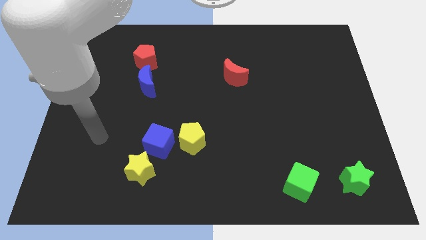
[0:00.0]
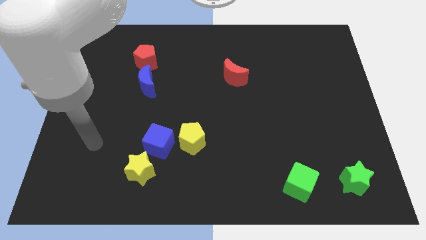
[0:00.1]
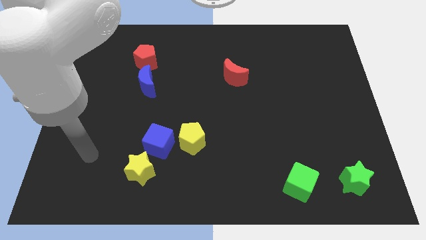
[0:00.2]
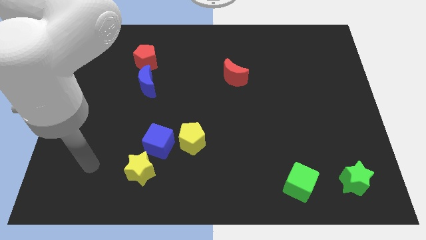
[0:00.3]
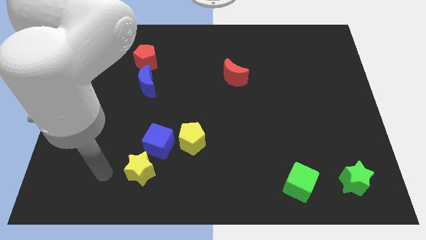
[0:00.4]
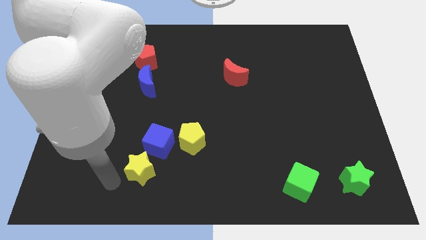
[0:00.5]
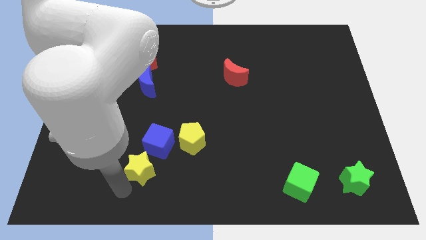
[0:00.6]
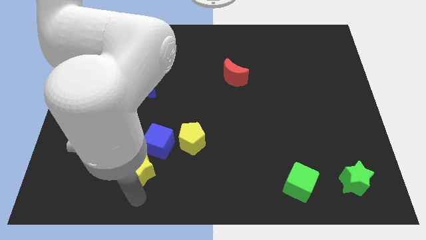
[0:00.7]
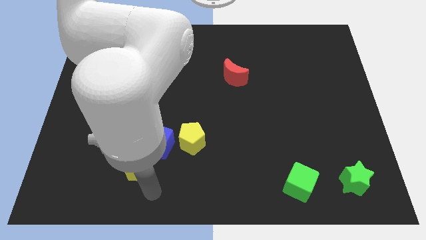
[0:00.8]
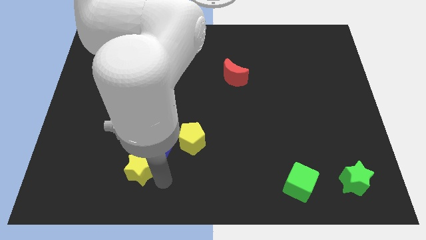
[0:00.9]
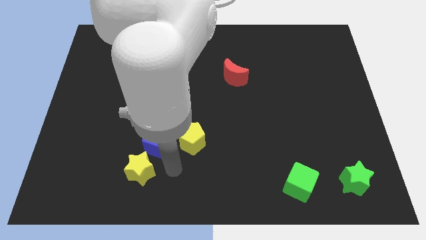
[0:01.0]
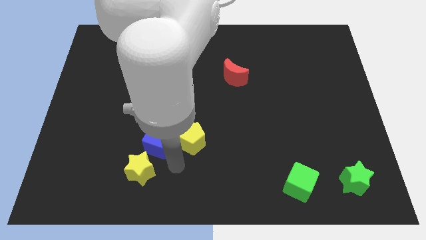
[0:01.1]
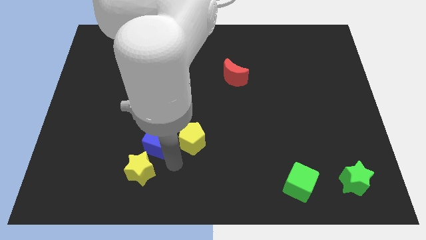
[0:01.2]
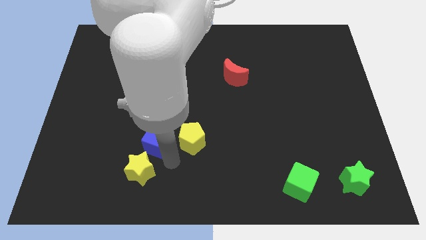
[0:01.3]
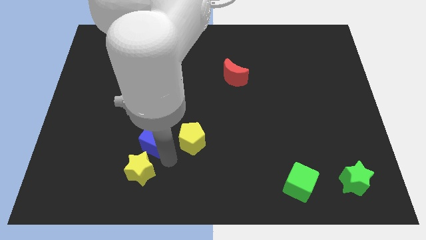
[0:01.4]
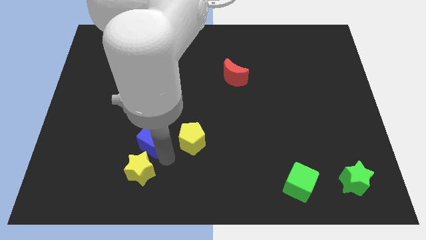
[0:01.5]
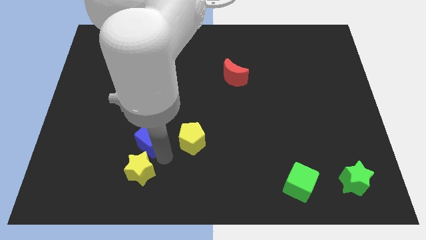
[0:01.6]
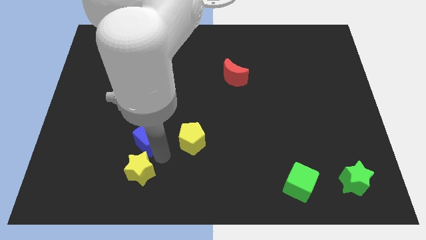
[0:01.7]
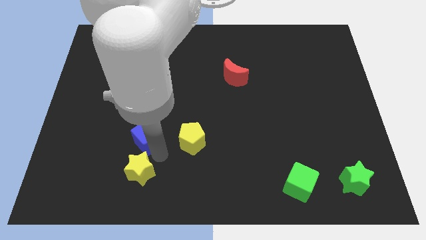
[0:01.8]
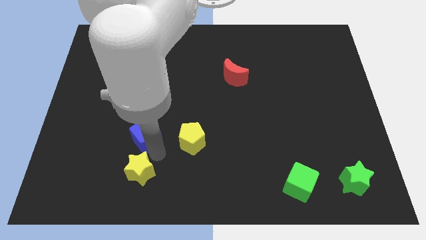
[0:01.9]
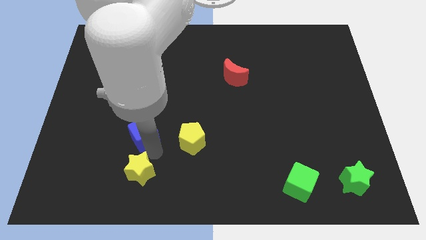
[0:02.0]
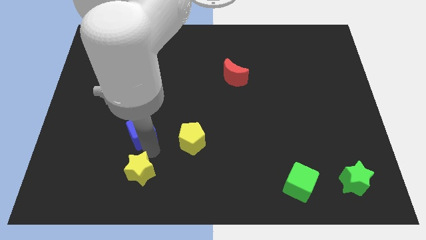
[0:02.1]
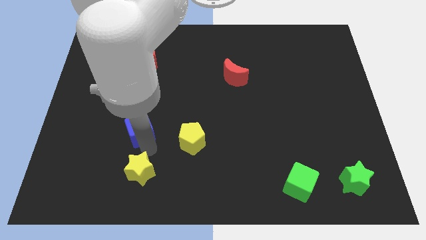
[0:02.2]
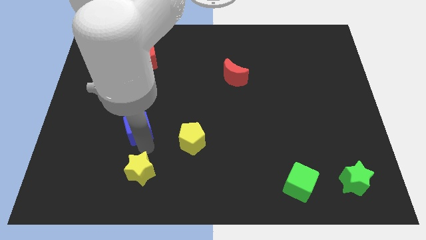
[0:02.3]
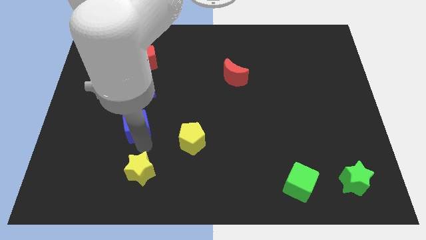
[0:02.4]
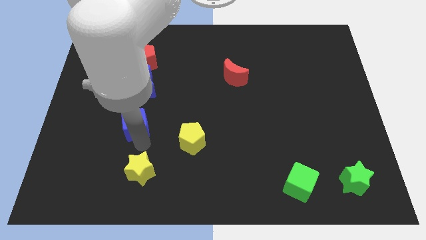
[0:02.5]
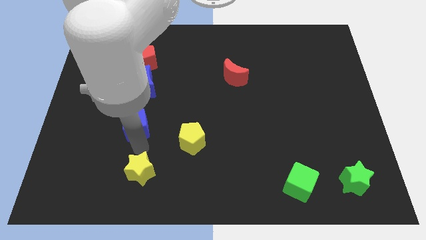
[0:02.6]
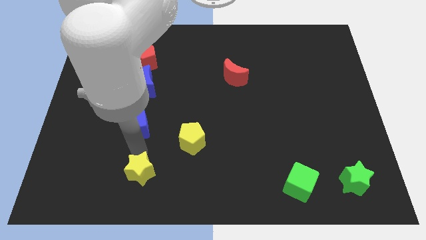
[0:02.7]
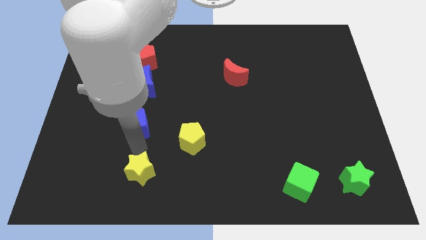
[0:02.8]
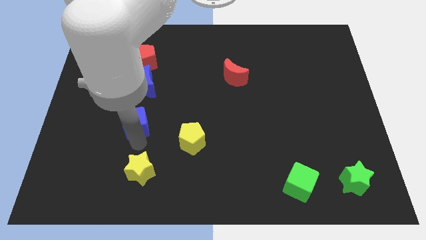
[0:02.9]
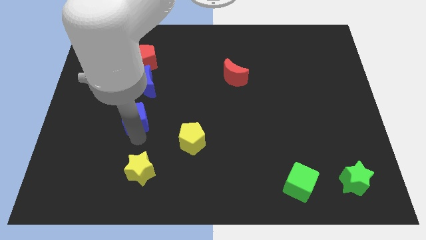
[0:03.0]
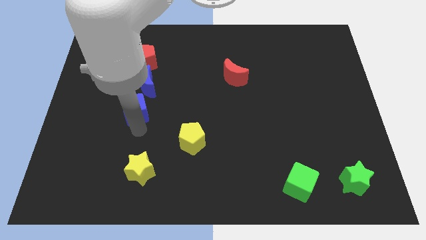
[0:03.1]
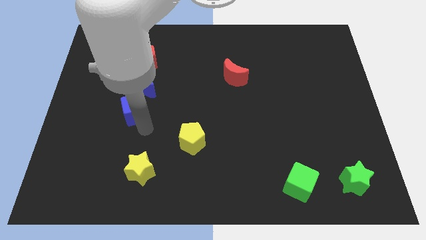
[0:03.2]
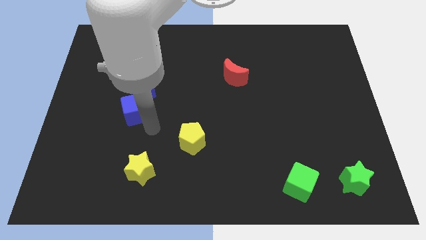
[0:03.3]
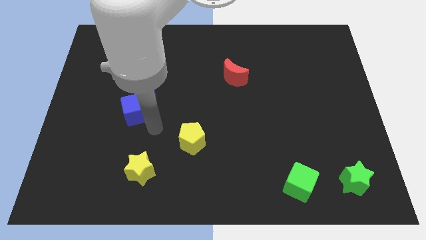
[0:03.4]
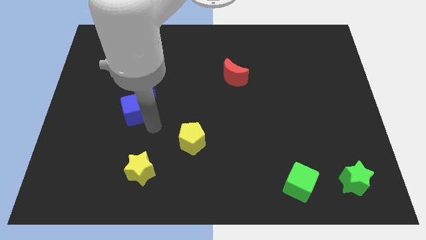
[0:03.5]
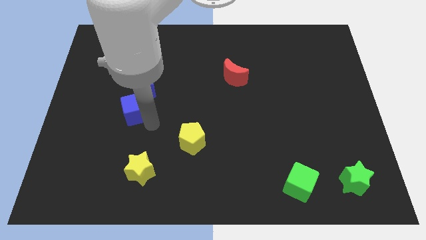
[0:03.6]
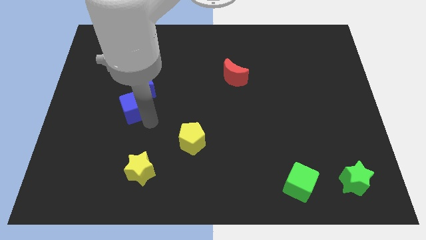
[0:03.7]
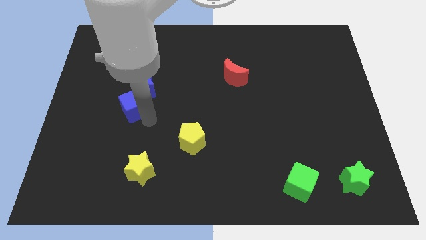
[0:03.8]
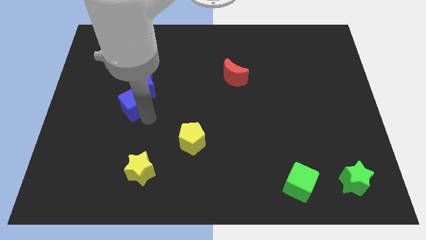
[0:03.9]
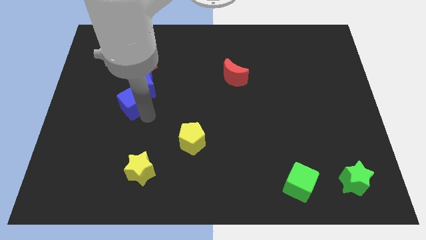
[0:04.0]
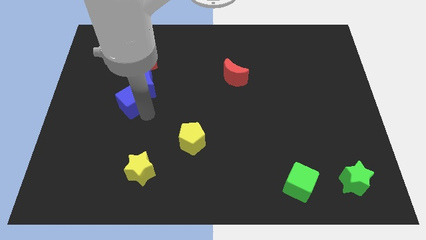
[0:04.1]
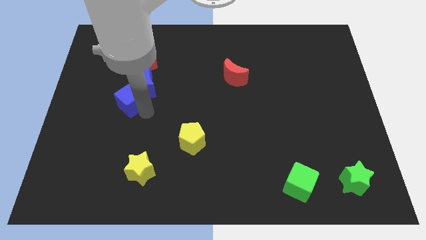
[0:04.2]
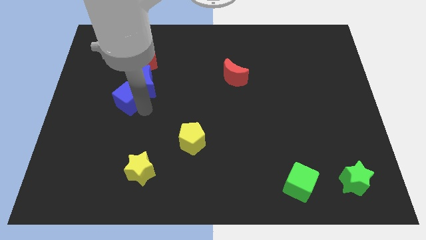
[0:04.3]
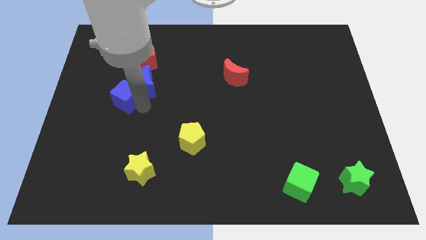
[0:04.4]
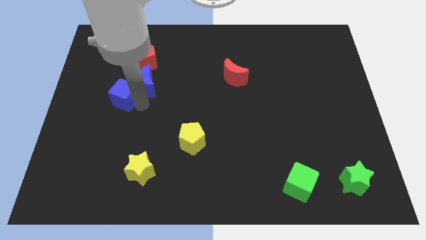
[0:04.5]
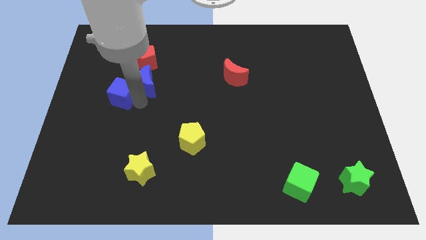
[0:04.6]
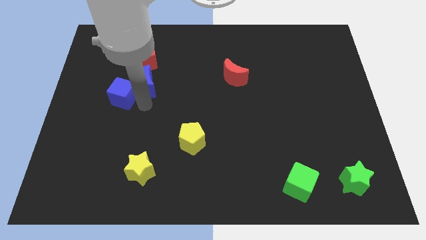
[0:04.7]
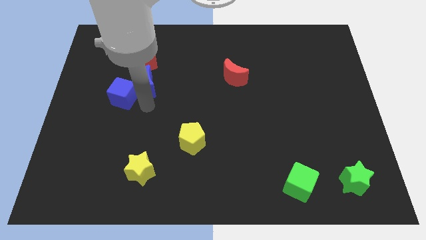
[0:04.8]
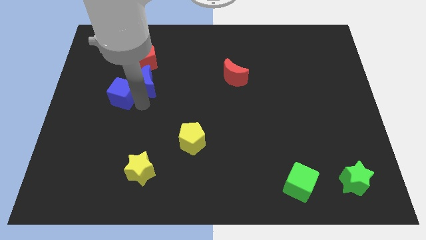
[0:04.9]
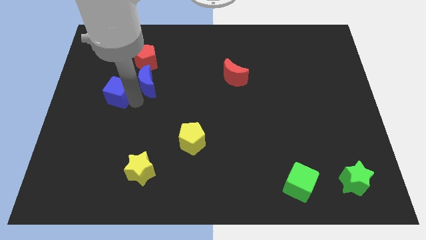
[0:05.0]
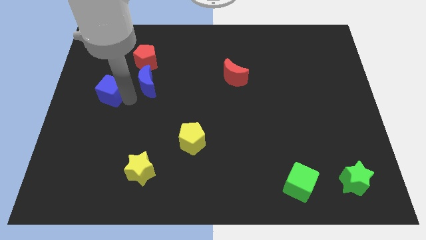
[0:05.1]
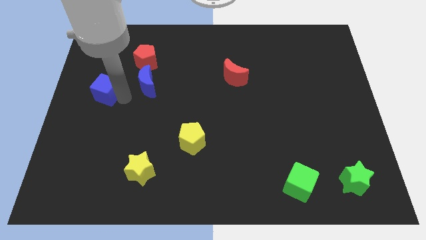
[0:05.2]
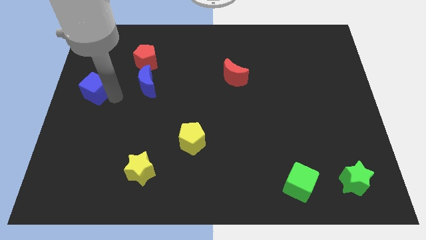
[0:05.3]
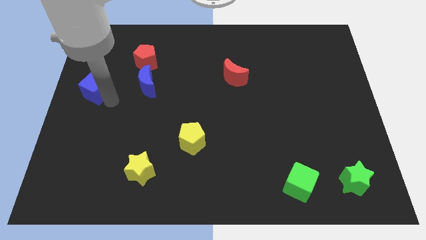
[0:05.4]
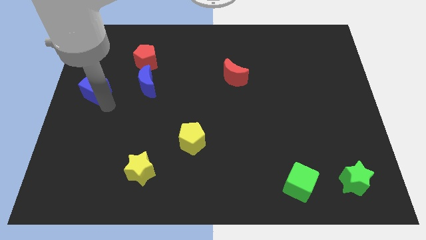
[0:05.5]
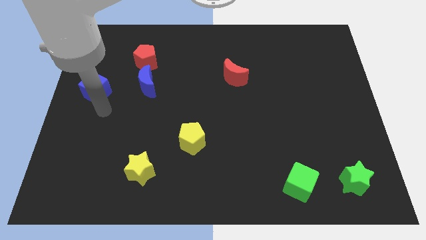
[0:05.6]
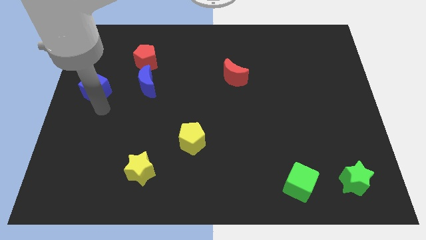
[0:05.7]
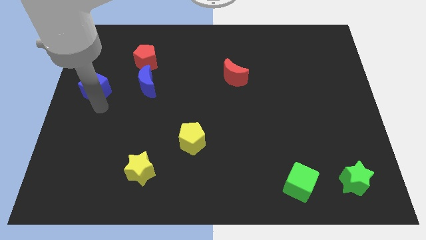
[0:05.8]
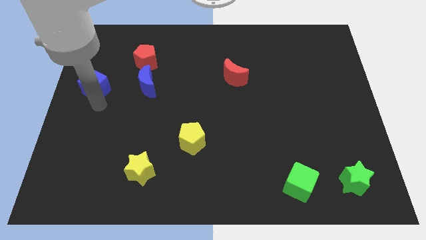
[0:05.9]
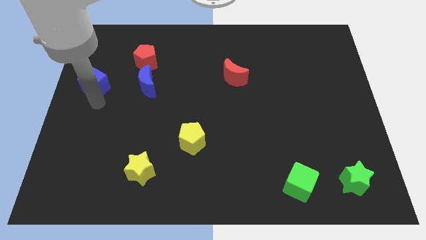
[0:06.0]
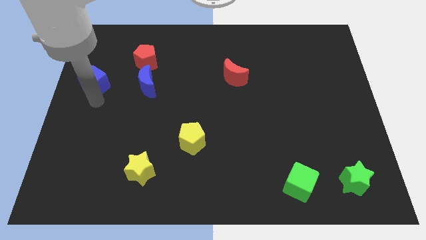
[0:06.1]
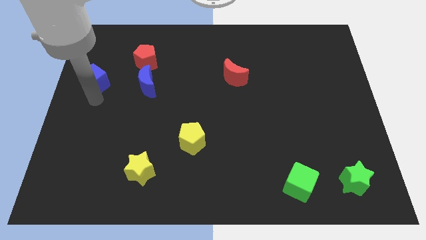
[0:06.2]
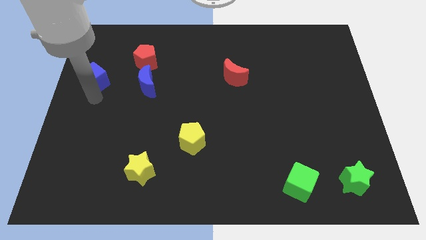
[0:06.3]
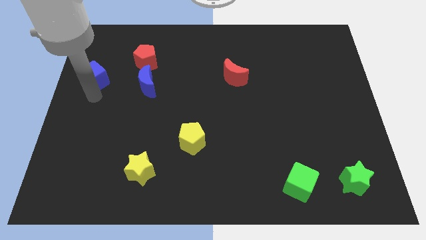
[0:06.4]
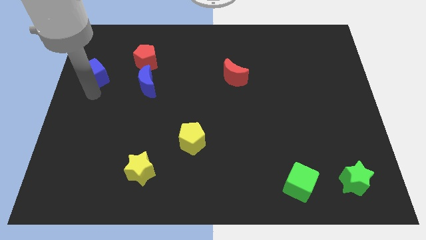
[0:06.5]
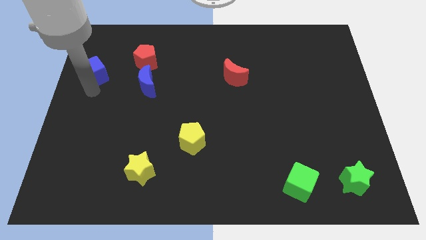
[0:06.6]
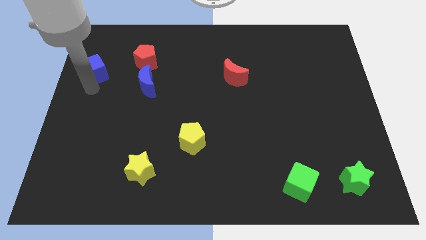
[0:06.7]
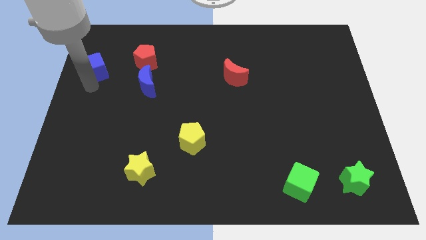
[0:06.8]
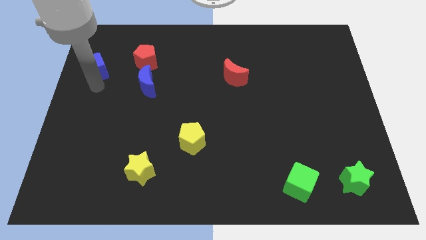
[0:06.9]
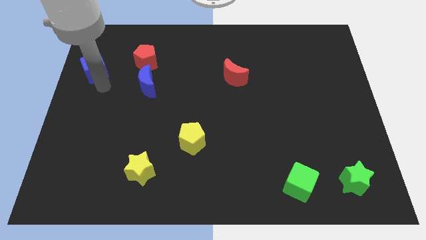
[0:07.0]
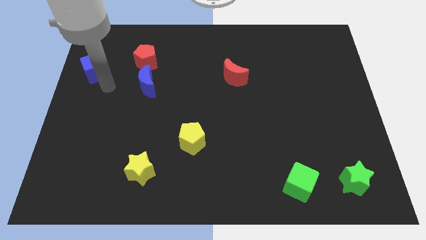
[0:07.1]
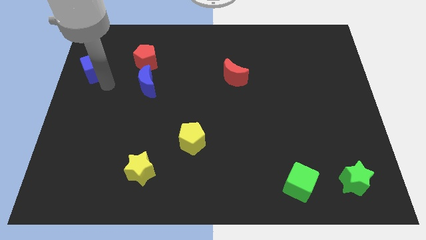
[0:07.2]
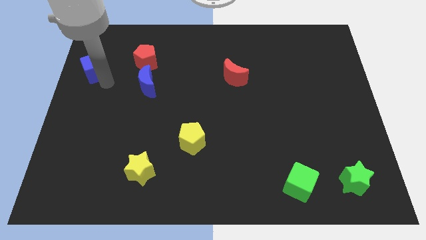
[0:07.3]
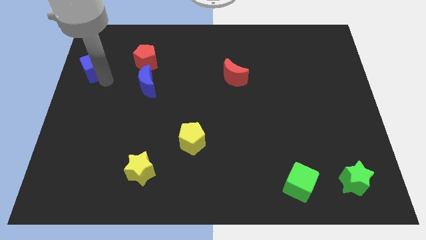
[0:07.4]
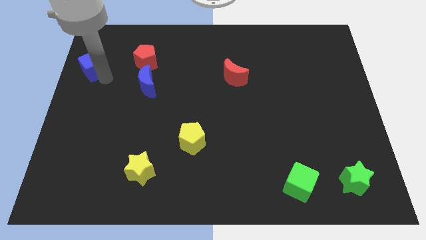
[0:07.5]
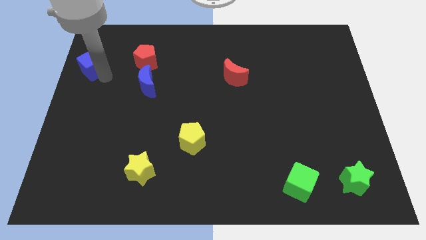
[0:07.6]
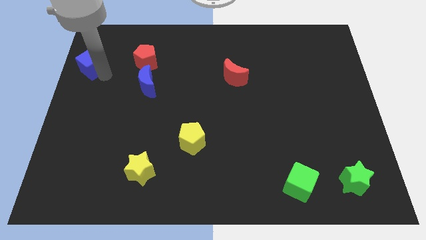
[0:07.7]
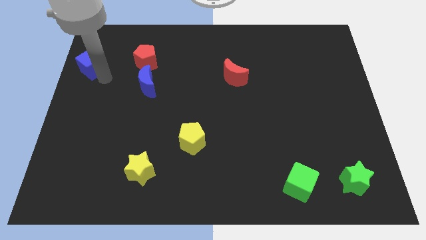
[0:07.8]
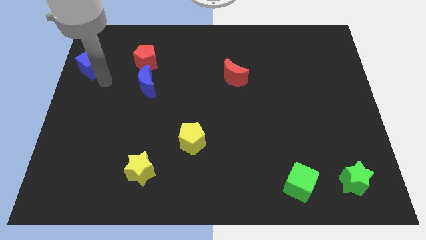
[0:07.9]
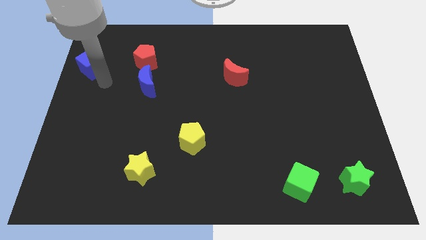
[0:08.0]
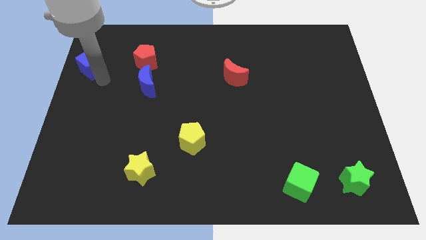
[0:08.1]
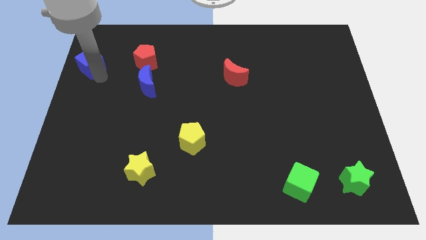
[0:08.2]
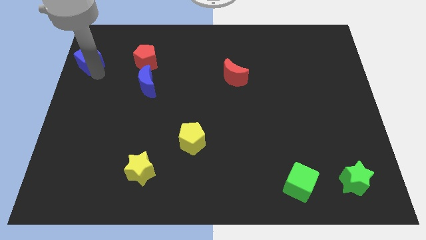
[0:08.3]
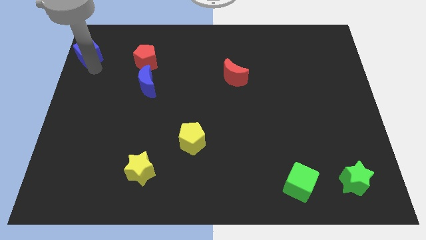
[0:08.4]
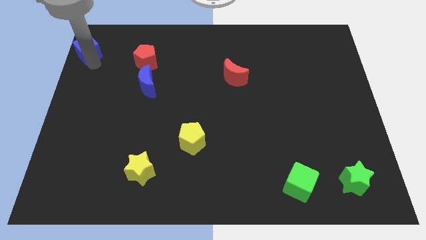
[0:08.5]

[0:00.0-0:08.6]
push the blue cube to the top left of the board
